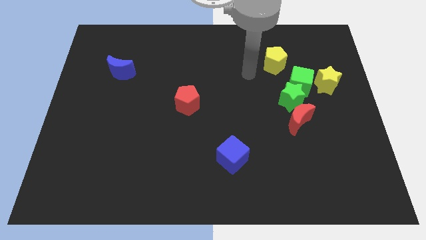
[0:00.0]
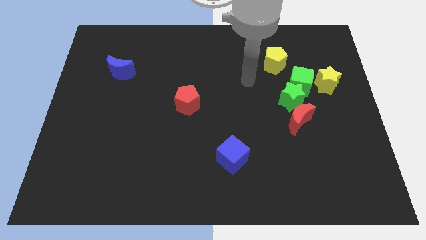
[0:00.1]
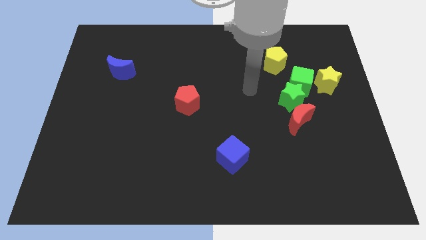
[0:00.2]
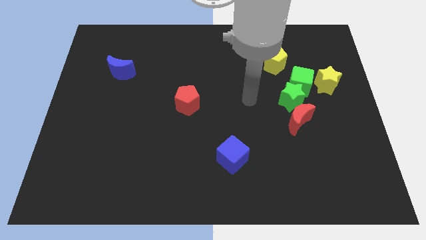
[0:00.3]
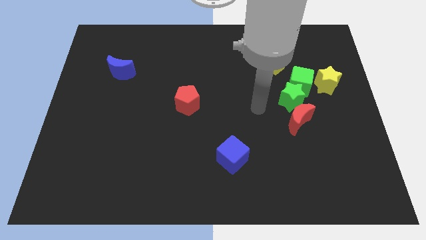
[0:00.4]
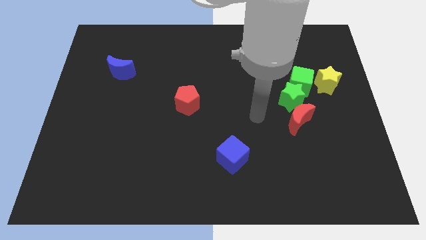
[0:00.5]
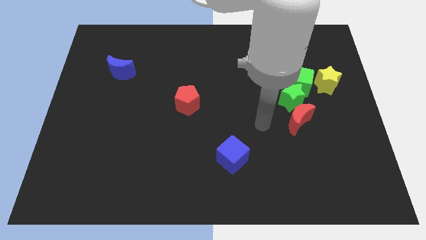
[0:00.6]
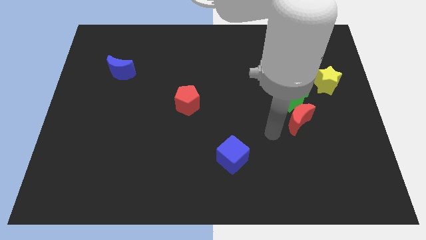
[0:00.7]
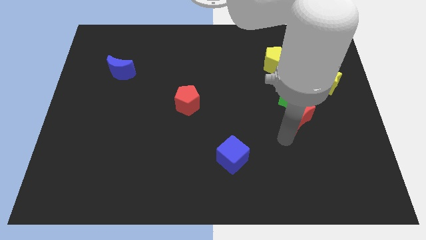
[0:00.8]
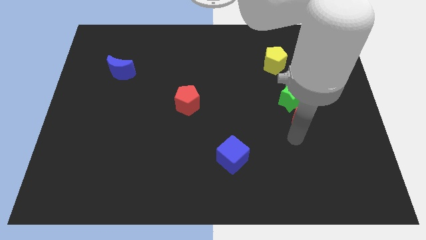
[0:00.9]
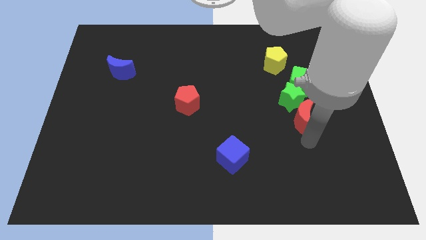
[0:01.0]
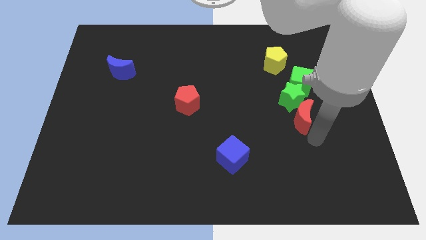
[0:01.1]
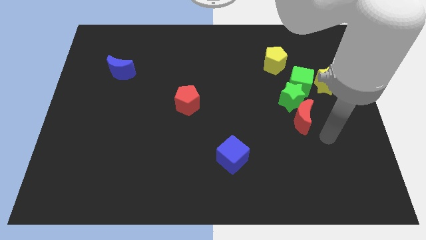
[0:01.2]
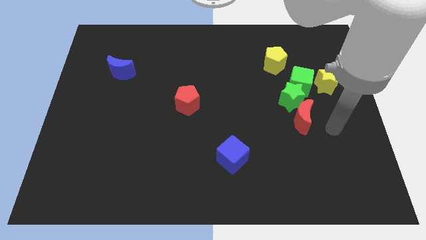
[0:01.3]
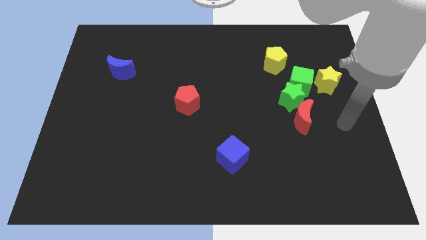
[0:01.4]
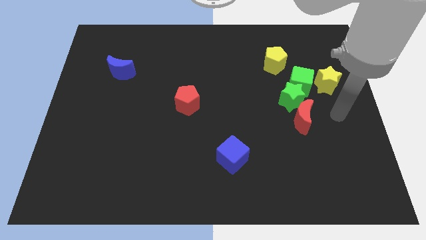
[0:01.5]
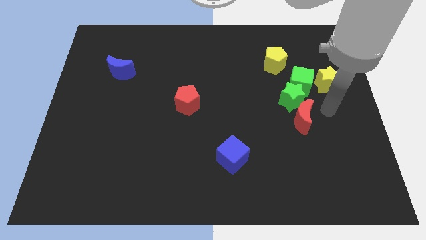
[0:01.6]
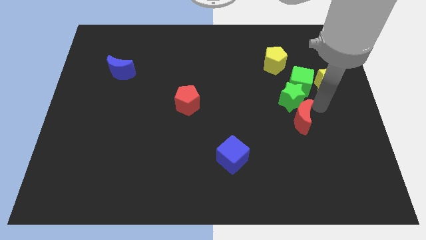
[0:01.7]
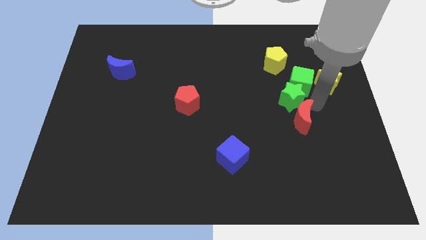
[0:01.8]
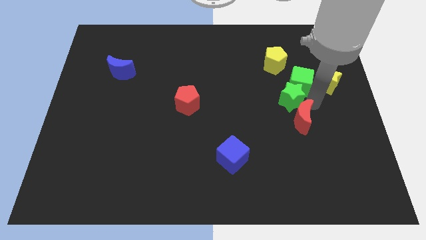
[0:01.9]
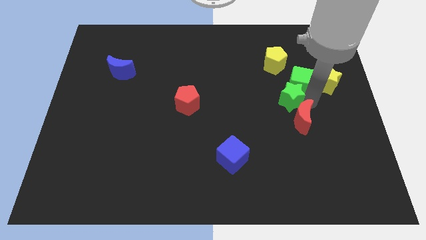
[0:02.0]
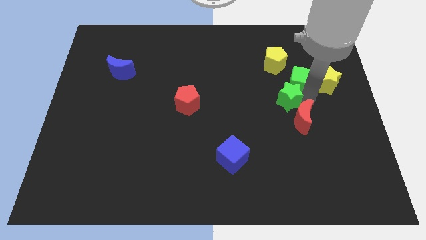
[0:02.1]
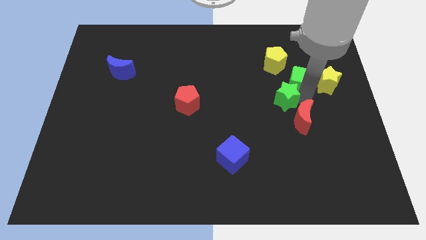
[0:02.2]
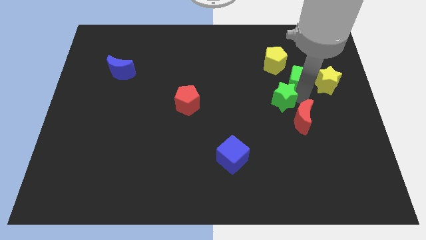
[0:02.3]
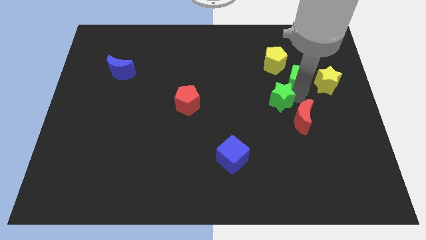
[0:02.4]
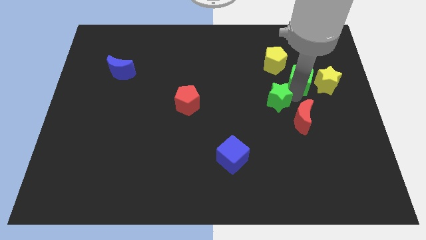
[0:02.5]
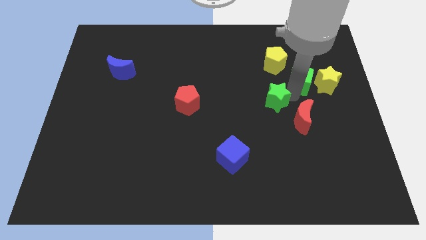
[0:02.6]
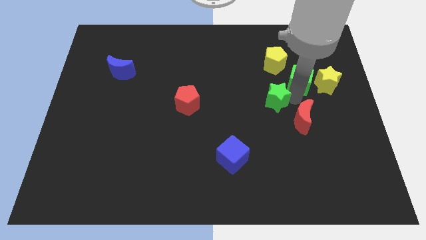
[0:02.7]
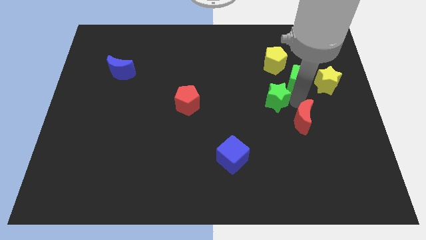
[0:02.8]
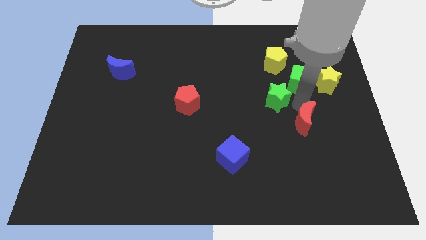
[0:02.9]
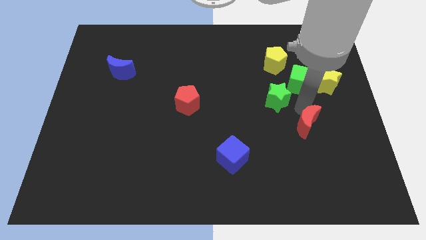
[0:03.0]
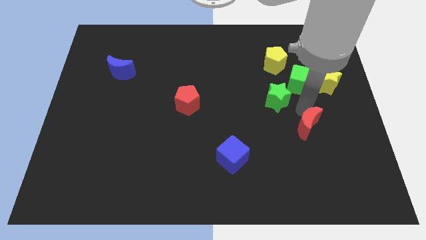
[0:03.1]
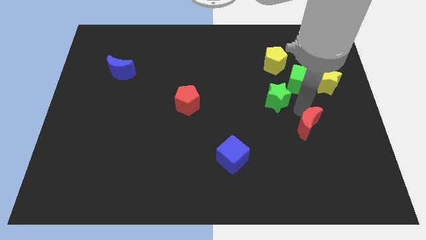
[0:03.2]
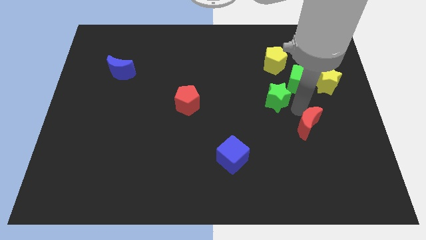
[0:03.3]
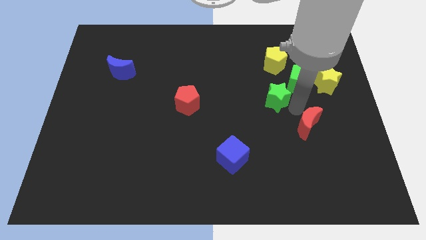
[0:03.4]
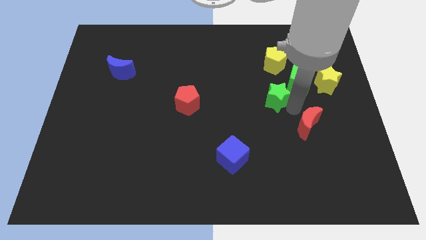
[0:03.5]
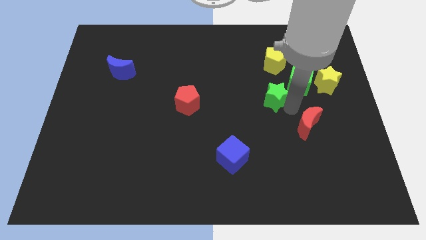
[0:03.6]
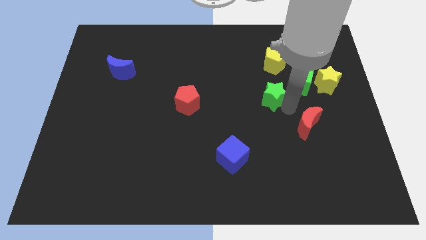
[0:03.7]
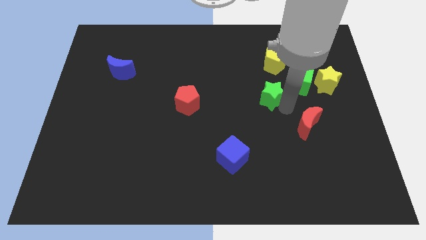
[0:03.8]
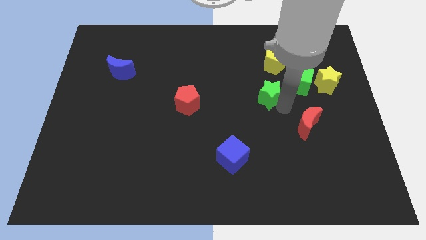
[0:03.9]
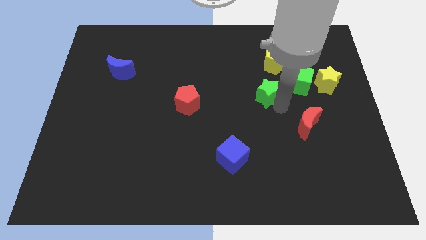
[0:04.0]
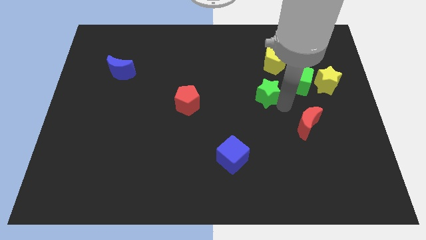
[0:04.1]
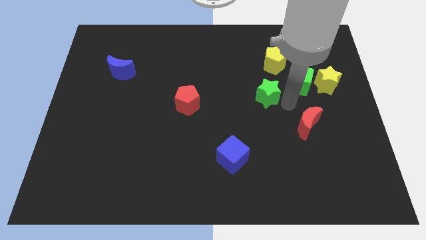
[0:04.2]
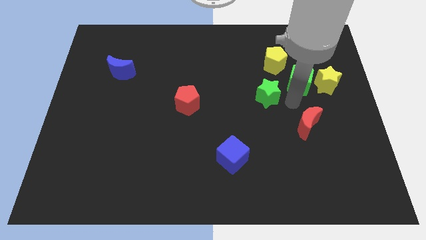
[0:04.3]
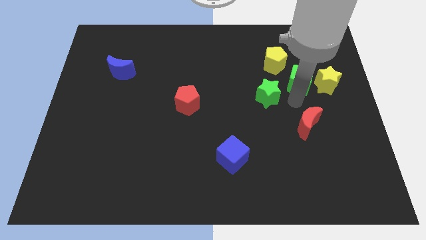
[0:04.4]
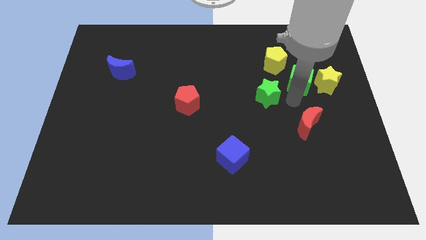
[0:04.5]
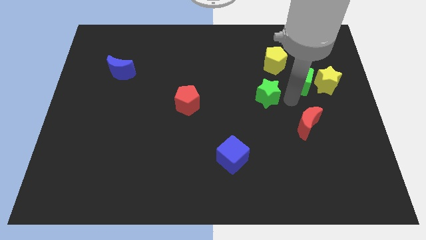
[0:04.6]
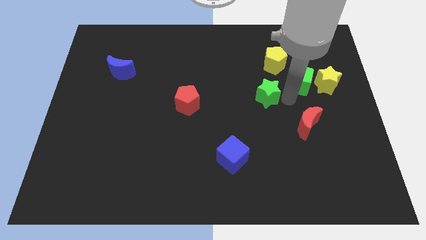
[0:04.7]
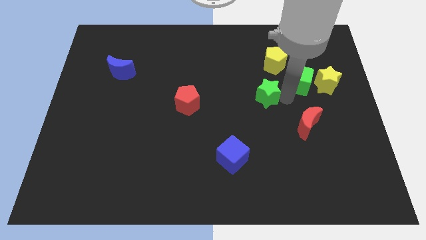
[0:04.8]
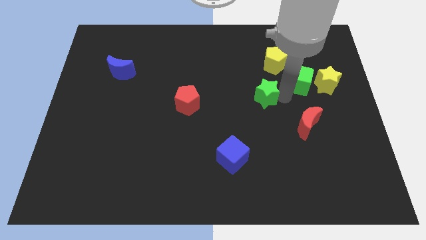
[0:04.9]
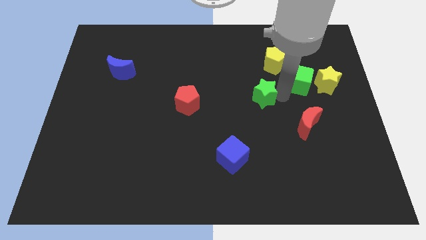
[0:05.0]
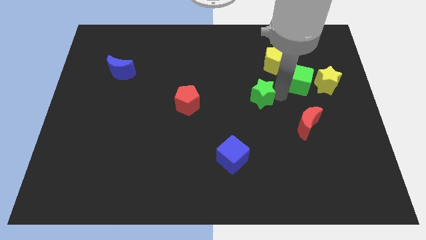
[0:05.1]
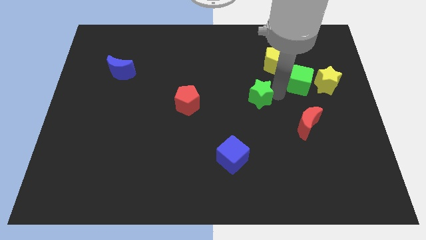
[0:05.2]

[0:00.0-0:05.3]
move the green star away from the green cube and red moon

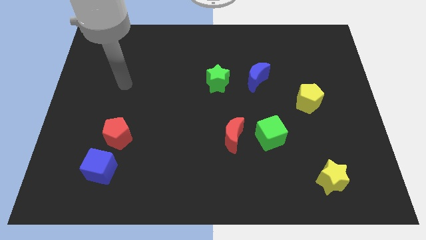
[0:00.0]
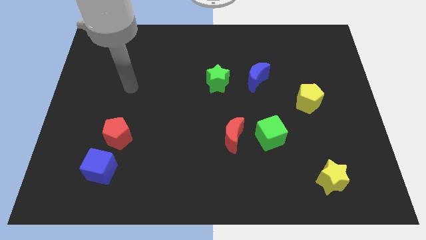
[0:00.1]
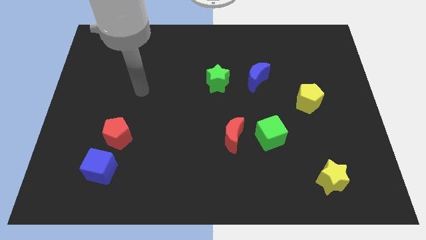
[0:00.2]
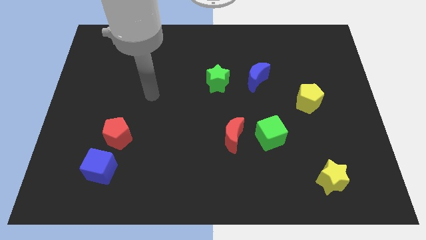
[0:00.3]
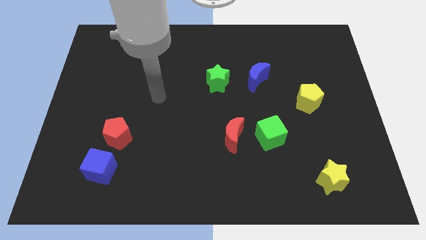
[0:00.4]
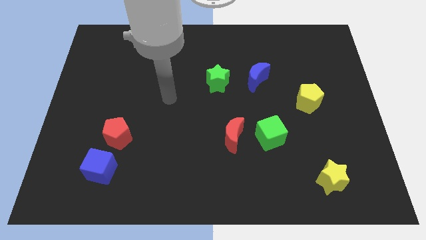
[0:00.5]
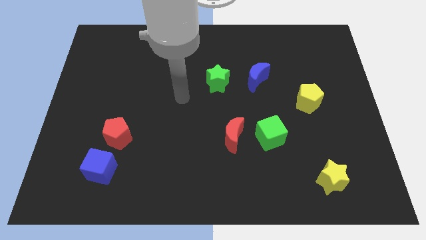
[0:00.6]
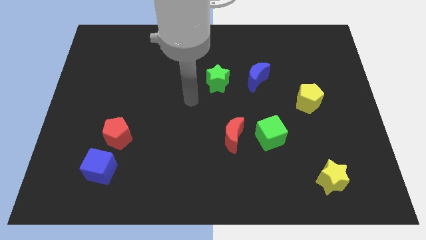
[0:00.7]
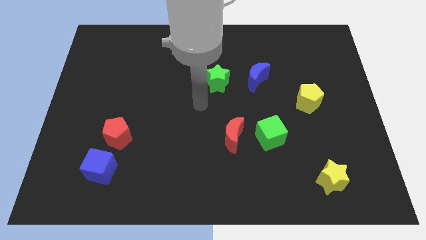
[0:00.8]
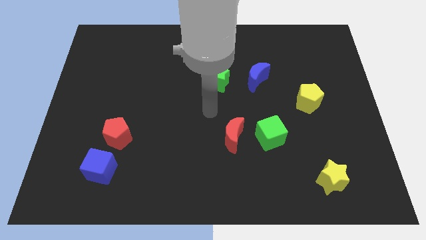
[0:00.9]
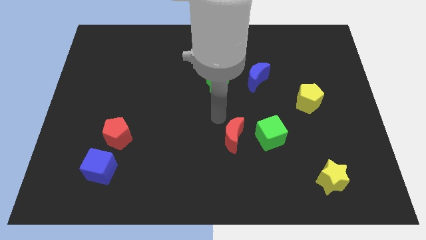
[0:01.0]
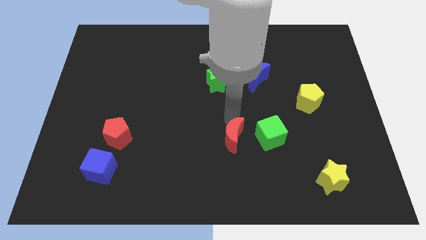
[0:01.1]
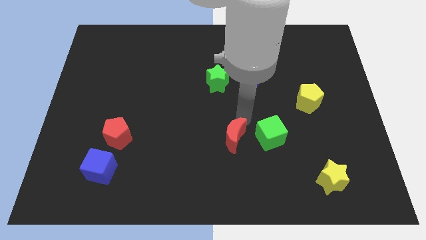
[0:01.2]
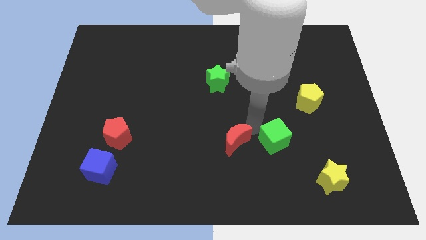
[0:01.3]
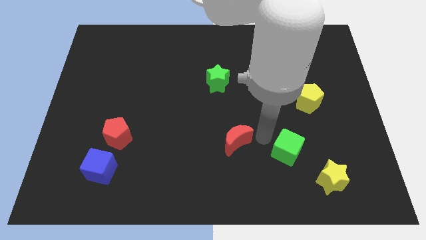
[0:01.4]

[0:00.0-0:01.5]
separate the red moon from the green cube

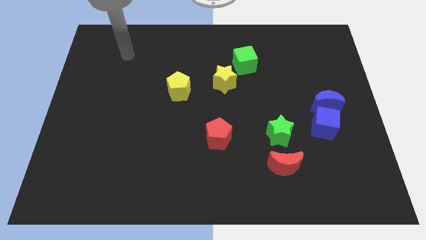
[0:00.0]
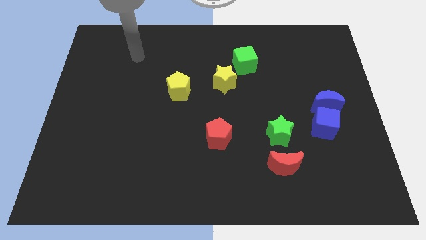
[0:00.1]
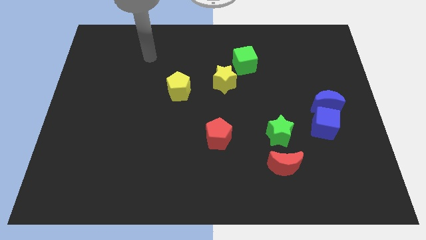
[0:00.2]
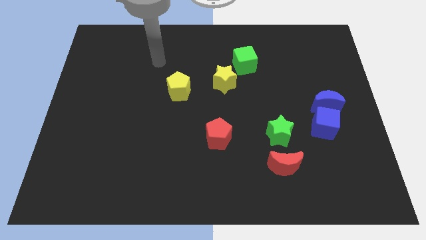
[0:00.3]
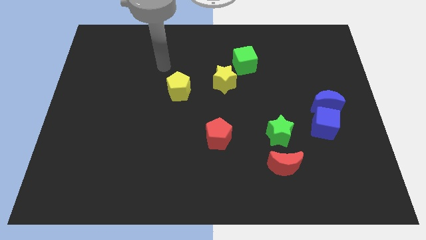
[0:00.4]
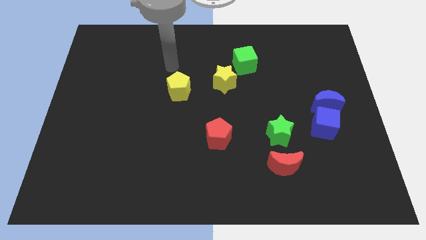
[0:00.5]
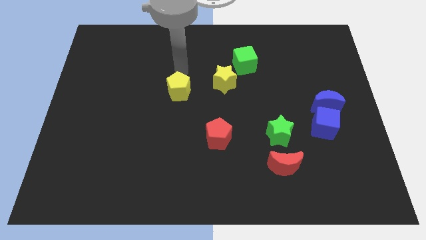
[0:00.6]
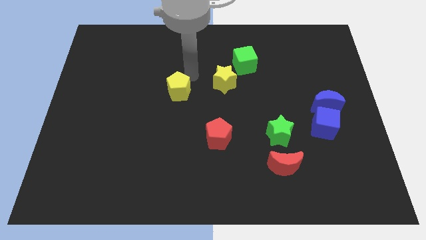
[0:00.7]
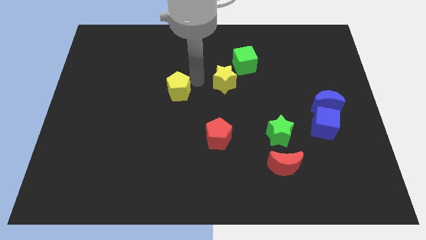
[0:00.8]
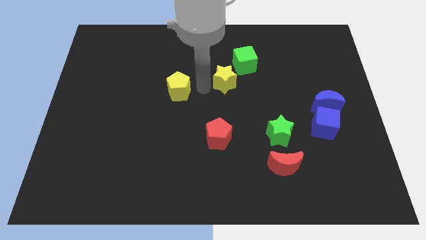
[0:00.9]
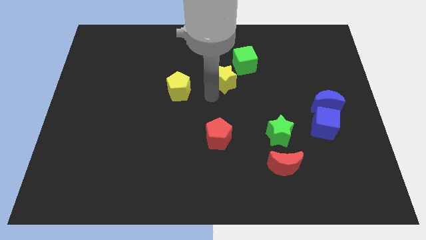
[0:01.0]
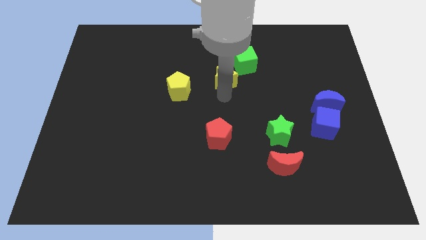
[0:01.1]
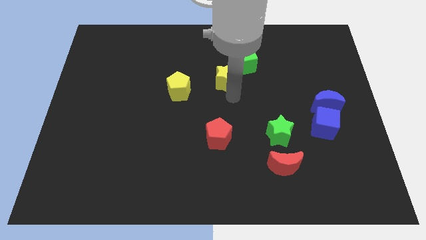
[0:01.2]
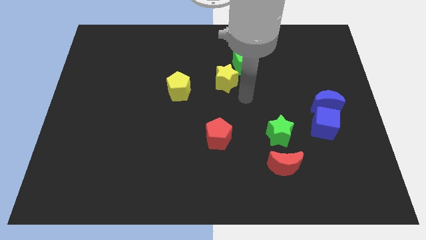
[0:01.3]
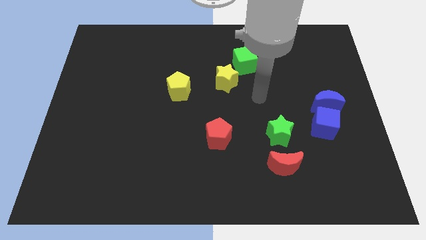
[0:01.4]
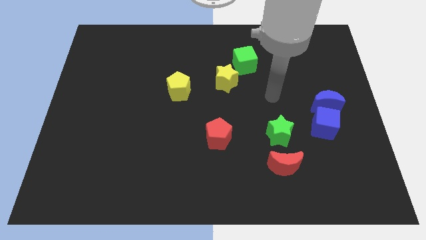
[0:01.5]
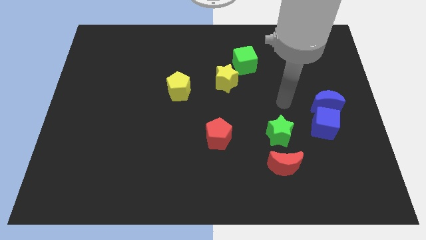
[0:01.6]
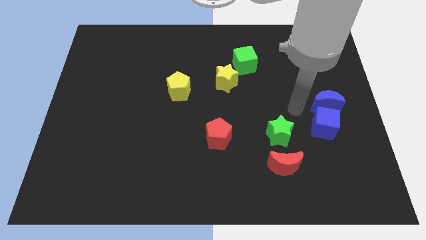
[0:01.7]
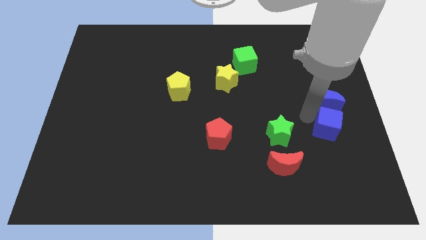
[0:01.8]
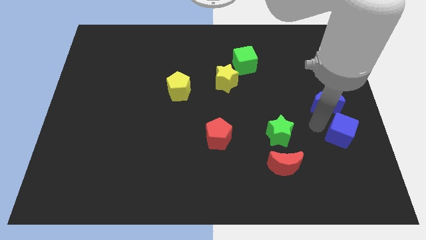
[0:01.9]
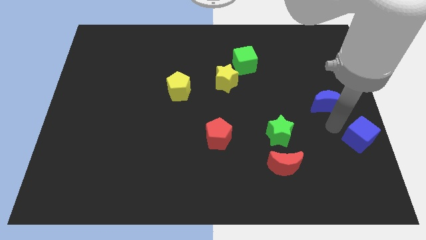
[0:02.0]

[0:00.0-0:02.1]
separate the blue moon from the blue cube

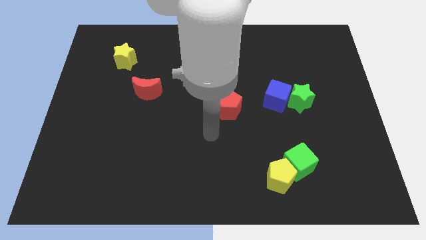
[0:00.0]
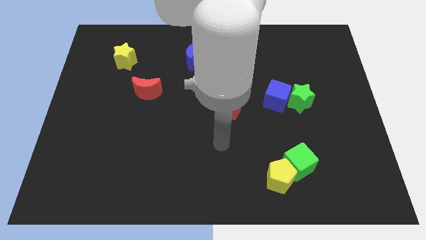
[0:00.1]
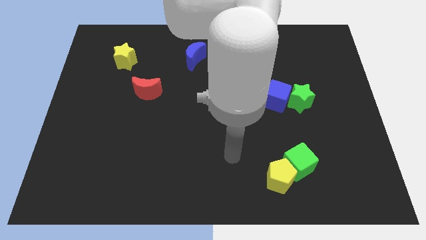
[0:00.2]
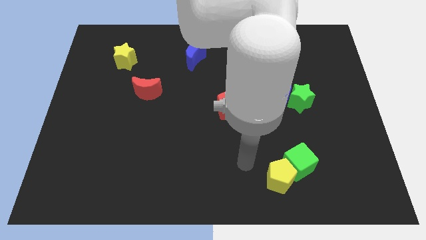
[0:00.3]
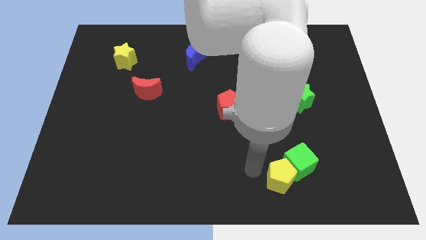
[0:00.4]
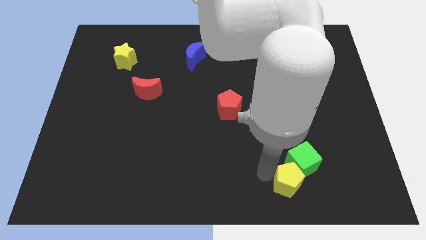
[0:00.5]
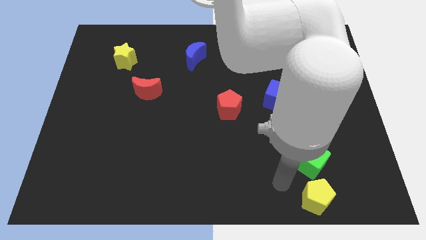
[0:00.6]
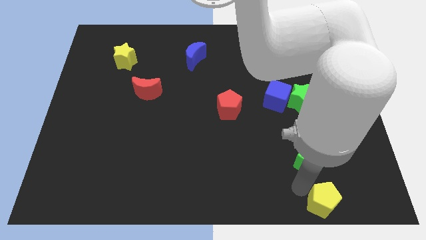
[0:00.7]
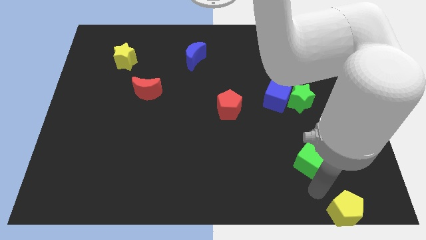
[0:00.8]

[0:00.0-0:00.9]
move the green cube away from the yellow pentagon
